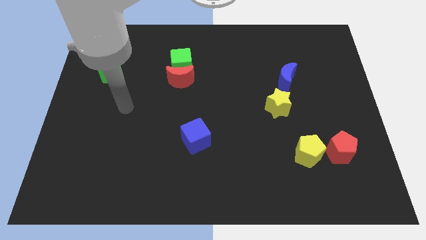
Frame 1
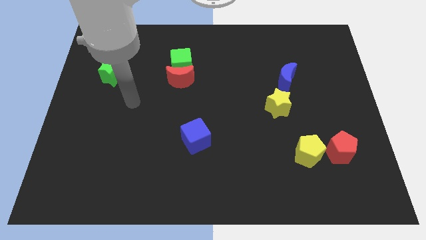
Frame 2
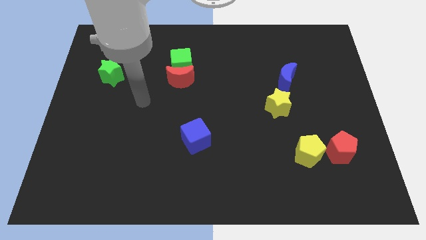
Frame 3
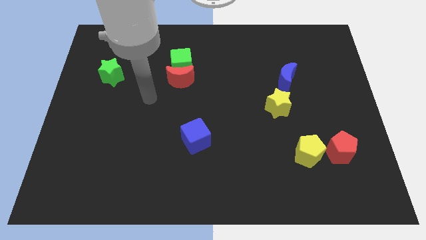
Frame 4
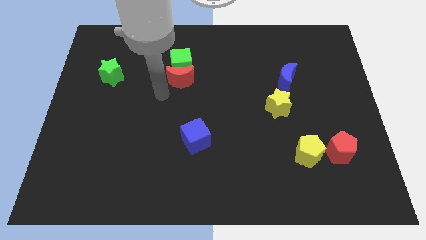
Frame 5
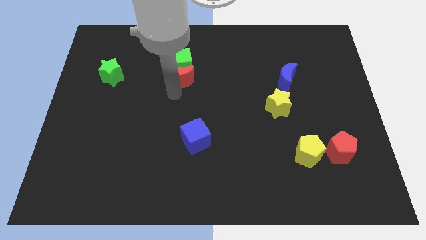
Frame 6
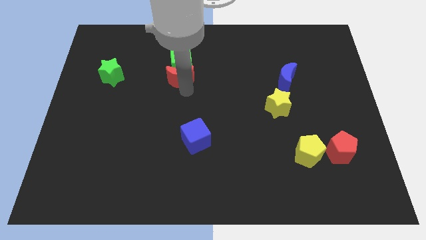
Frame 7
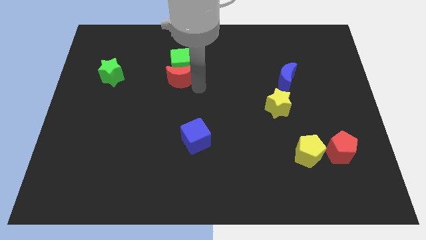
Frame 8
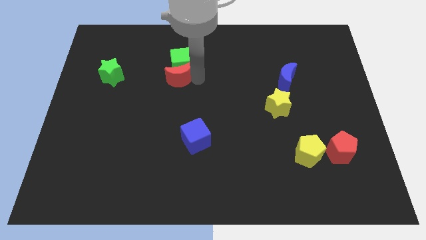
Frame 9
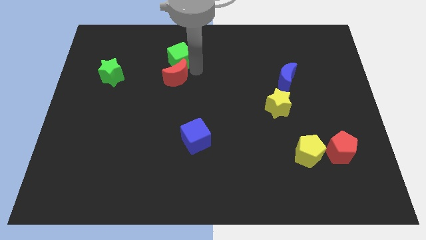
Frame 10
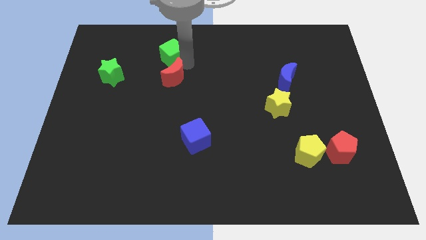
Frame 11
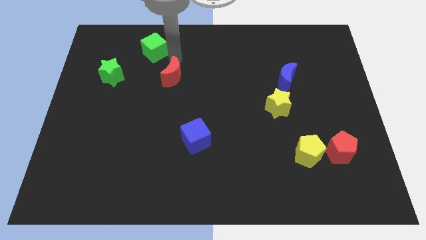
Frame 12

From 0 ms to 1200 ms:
move the red moon away from the green cube

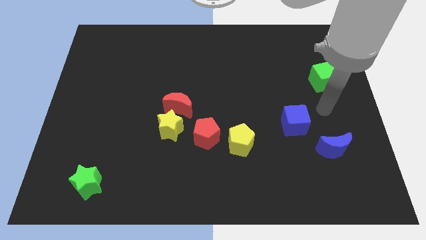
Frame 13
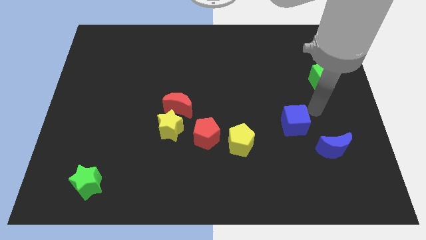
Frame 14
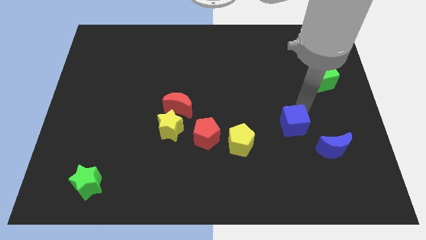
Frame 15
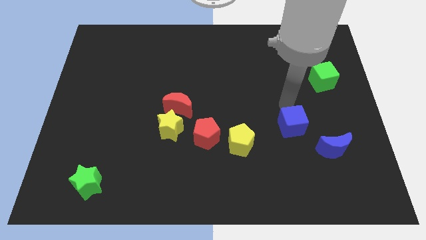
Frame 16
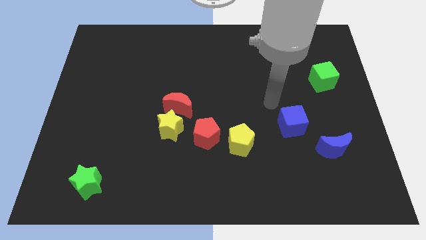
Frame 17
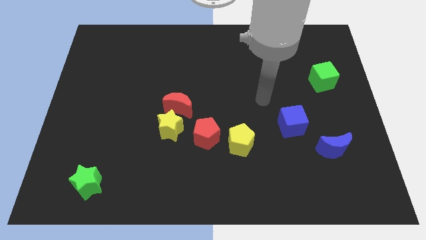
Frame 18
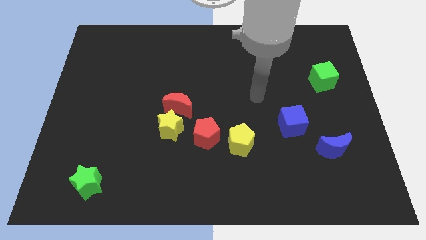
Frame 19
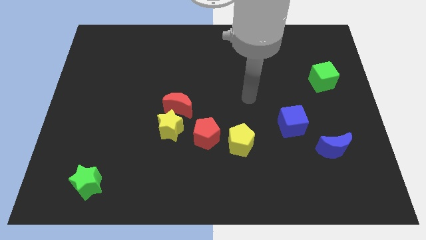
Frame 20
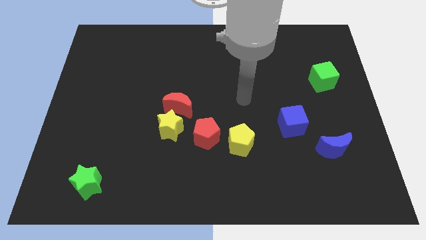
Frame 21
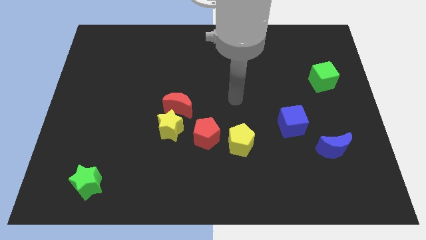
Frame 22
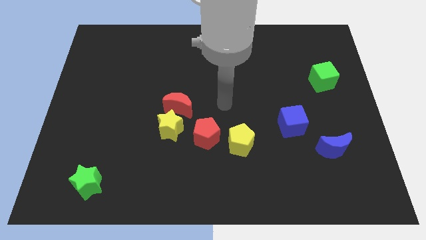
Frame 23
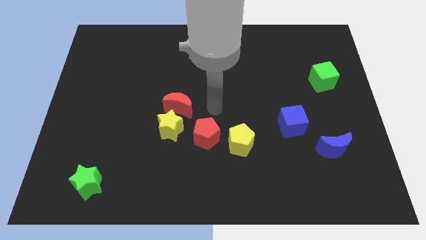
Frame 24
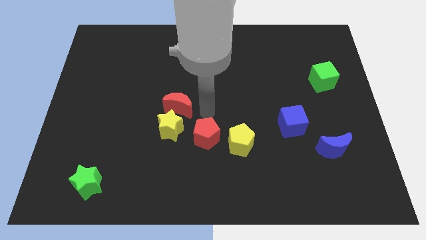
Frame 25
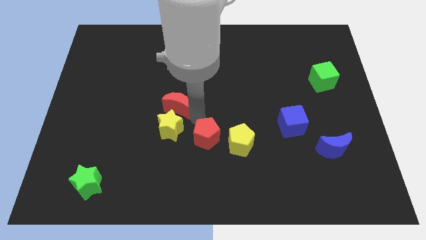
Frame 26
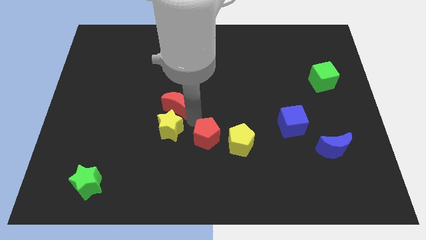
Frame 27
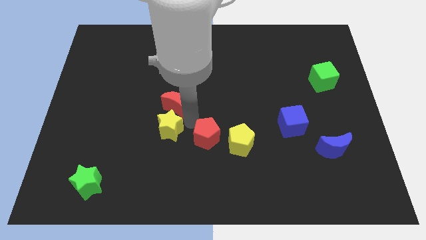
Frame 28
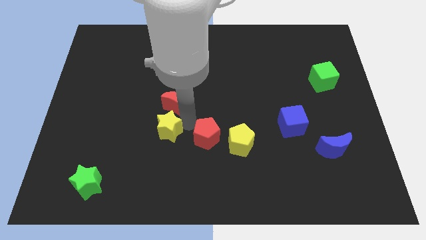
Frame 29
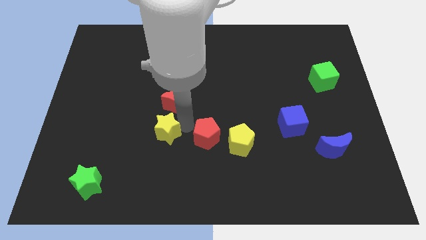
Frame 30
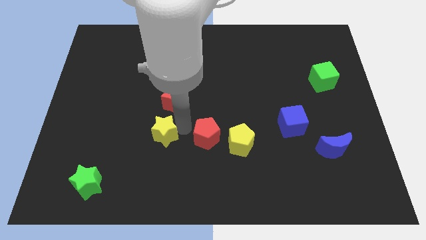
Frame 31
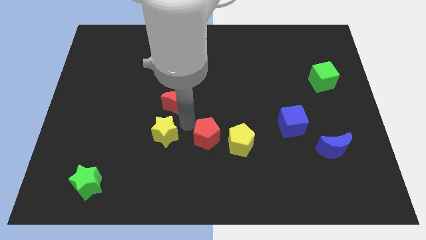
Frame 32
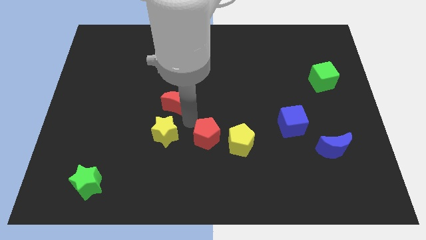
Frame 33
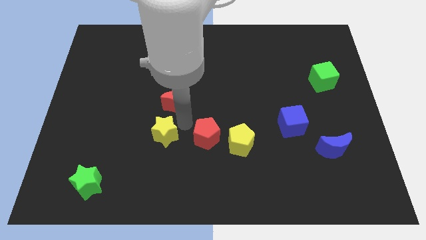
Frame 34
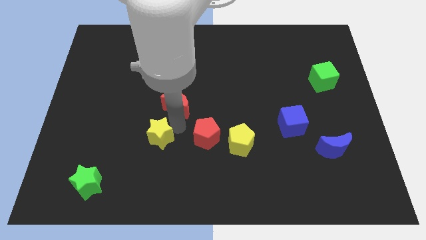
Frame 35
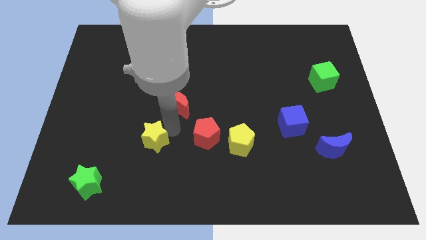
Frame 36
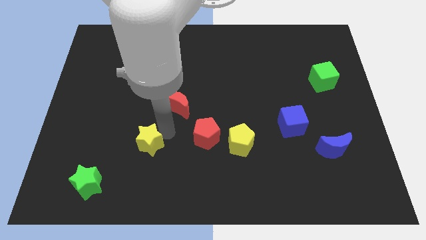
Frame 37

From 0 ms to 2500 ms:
pull the yellow star apart from the red moon and red pentagon

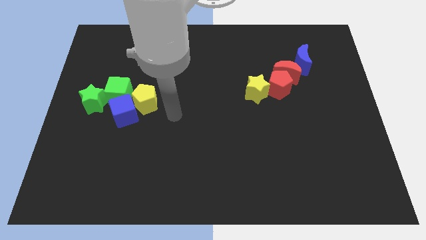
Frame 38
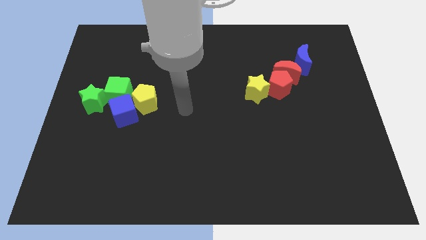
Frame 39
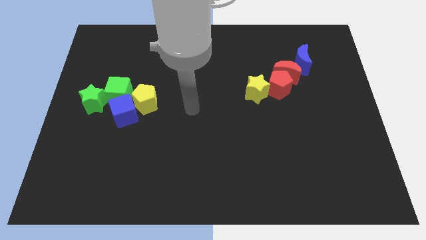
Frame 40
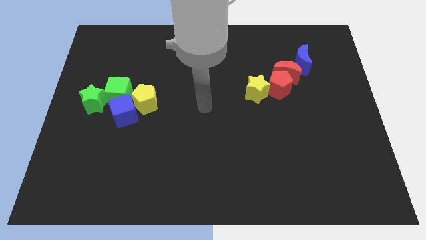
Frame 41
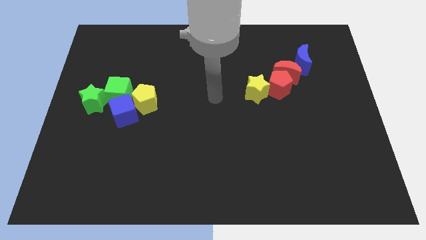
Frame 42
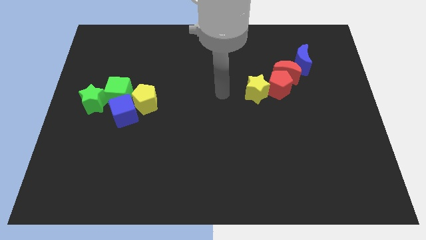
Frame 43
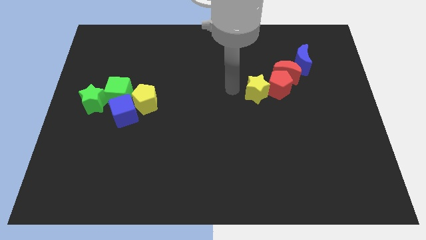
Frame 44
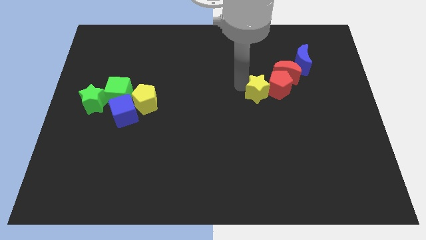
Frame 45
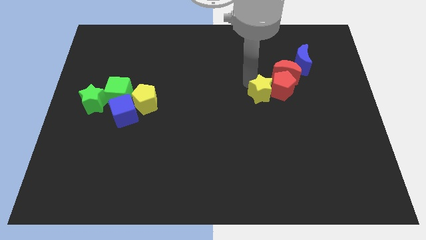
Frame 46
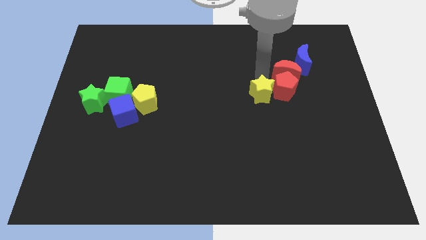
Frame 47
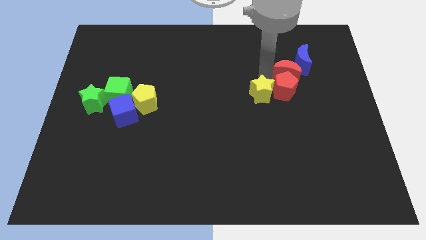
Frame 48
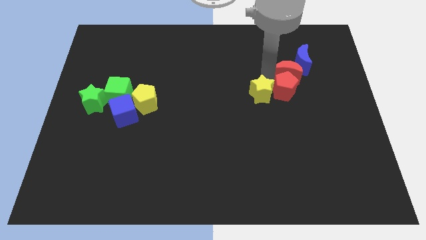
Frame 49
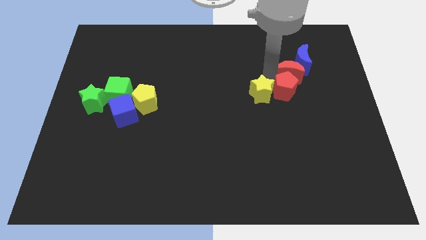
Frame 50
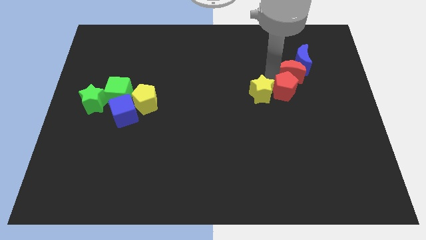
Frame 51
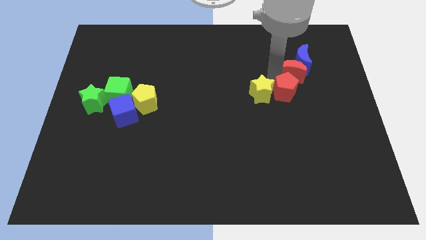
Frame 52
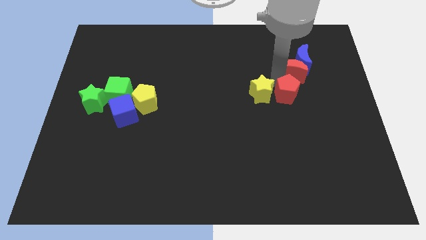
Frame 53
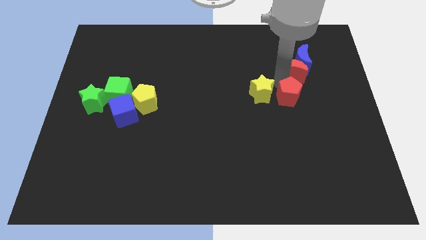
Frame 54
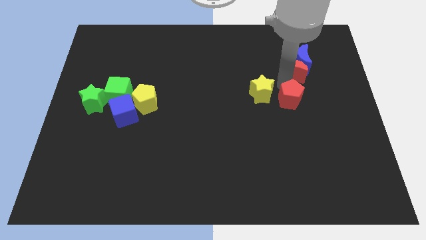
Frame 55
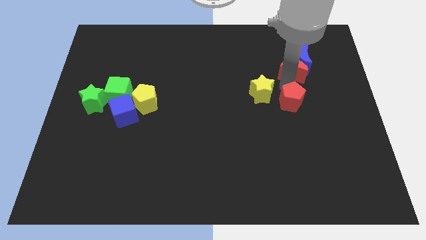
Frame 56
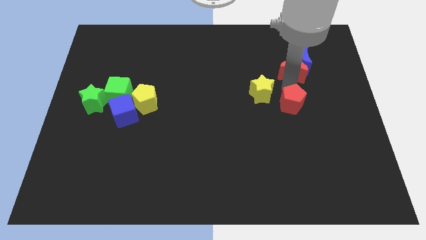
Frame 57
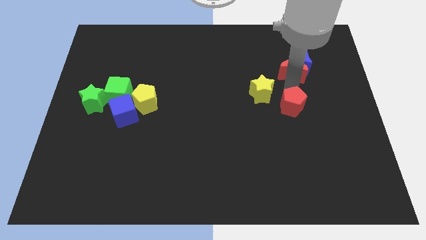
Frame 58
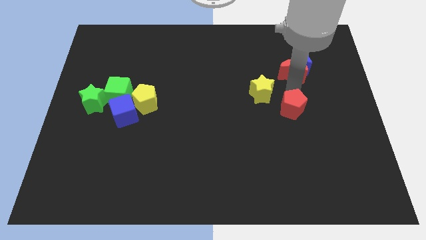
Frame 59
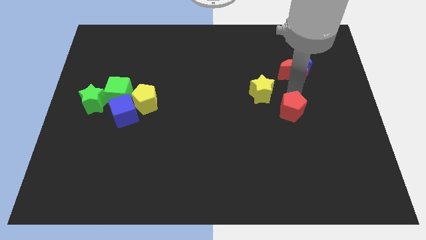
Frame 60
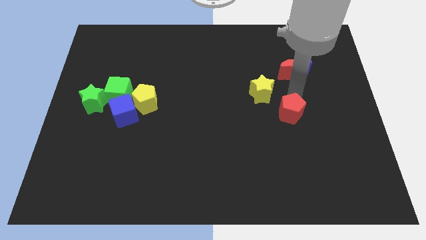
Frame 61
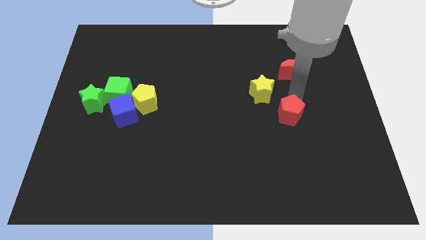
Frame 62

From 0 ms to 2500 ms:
separate the red pentagon from the red moon and yellow star

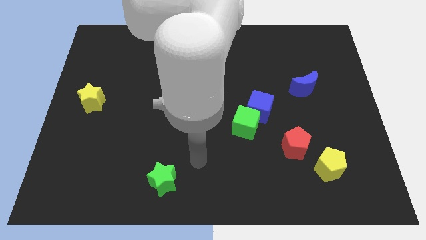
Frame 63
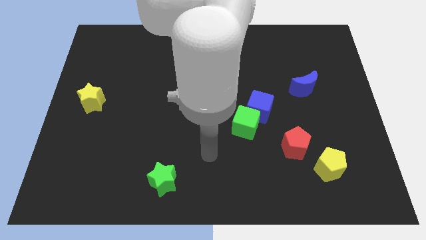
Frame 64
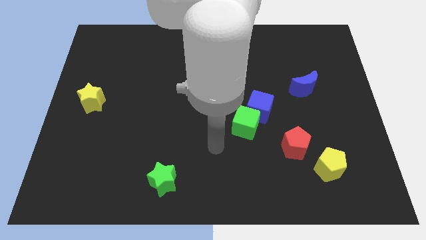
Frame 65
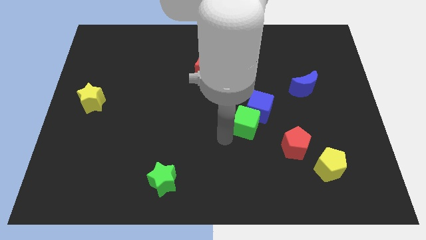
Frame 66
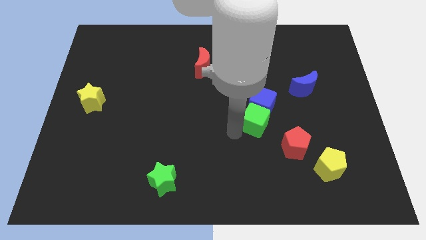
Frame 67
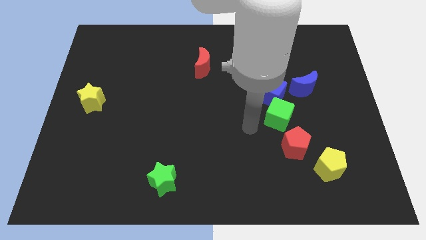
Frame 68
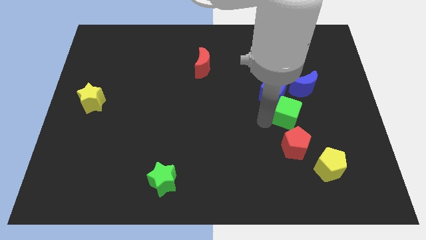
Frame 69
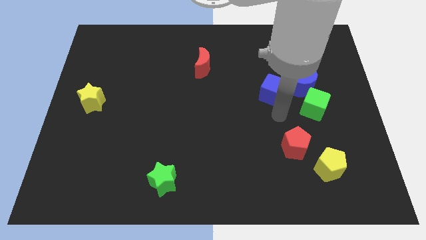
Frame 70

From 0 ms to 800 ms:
pull the blue cube apart from the green cube

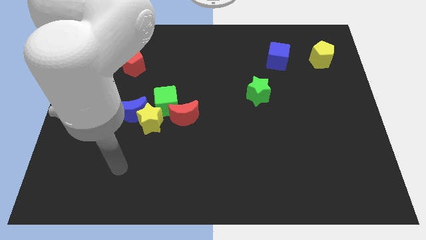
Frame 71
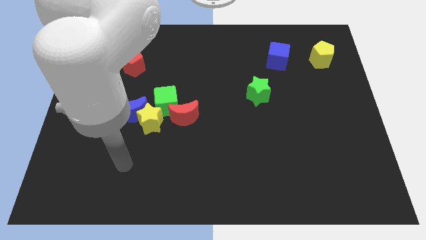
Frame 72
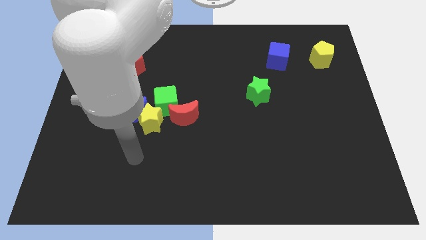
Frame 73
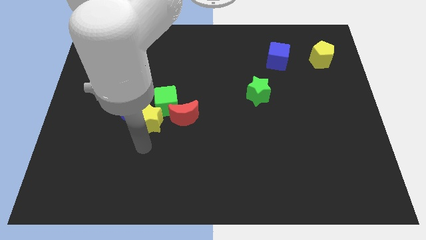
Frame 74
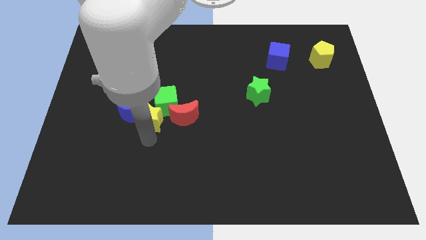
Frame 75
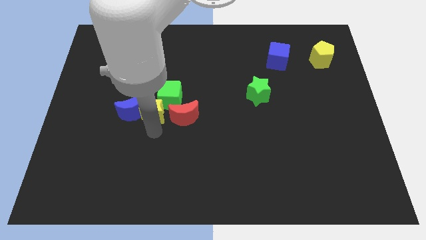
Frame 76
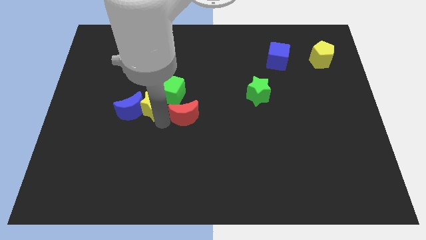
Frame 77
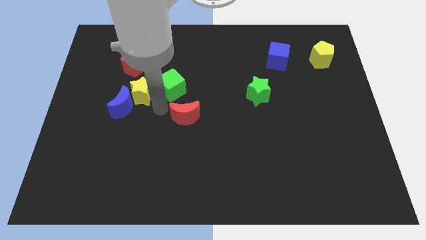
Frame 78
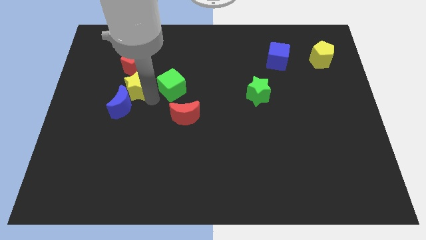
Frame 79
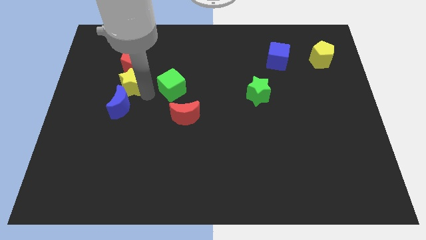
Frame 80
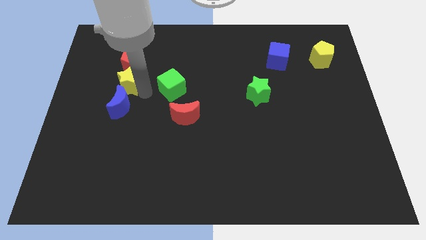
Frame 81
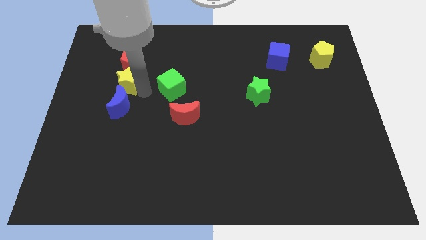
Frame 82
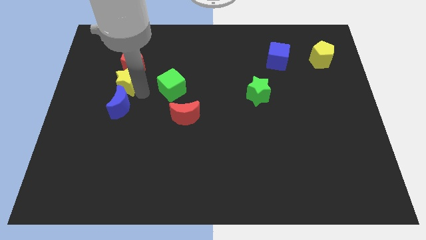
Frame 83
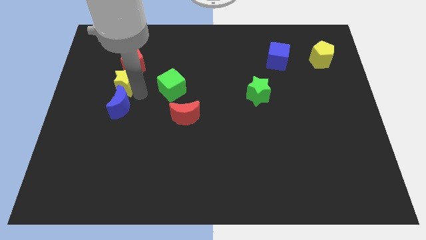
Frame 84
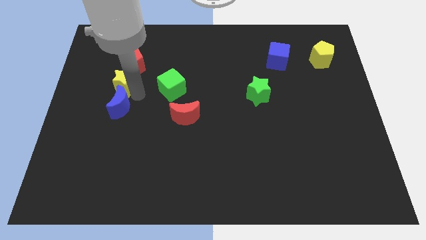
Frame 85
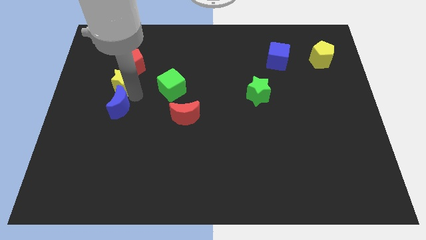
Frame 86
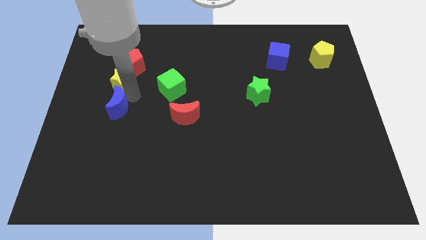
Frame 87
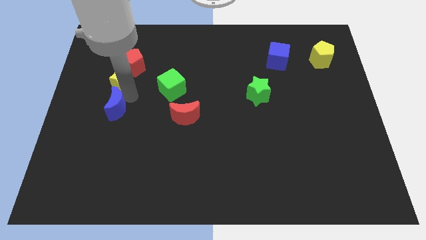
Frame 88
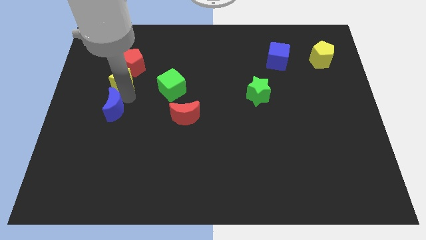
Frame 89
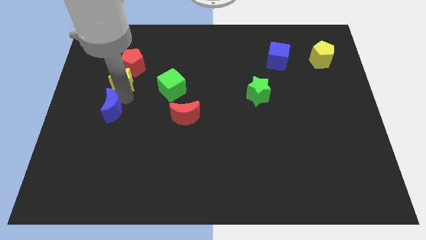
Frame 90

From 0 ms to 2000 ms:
separate the blue moon from the yellow star and green cube

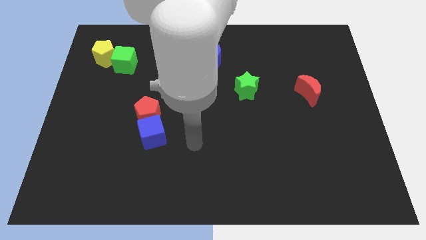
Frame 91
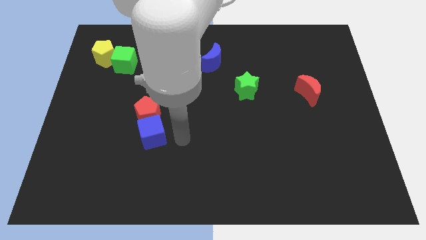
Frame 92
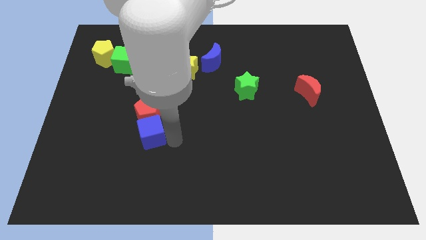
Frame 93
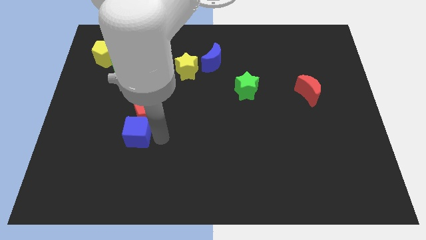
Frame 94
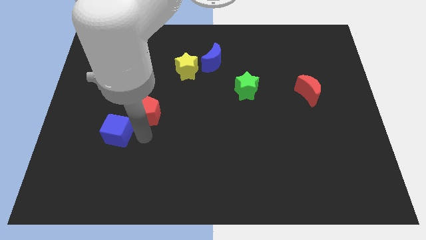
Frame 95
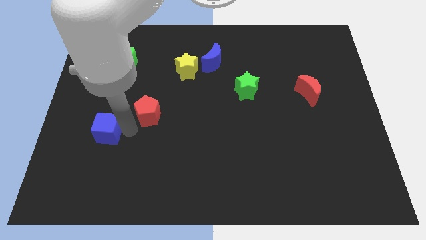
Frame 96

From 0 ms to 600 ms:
pull the red pentagon apart from the blue cube
